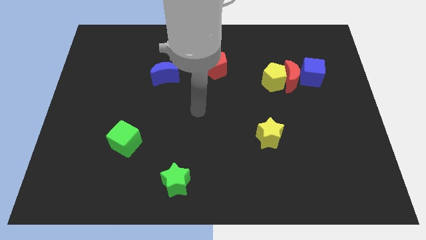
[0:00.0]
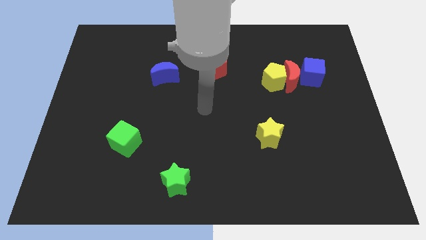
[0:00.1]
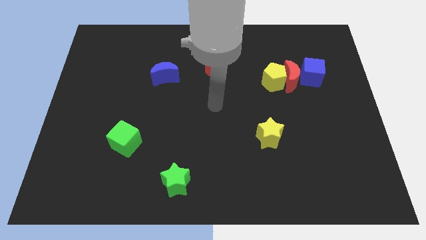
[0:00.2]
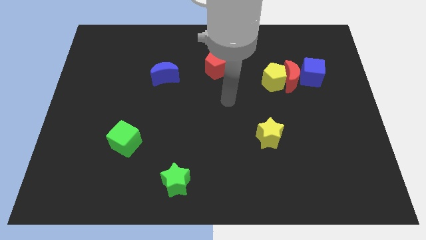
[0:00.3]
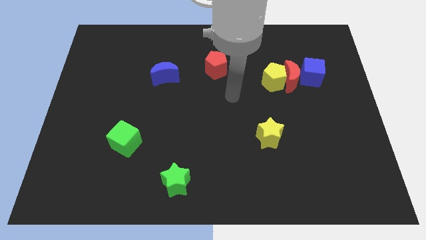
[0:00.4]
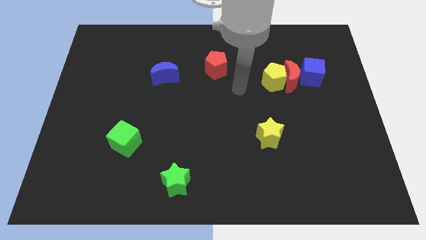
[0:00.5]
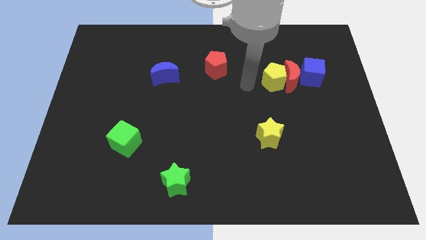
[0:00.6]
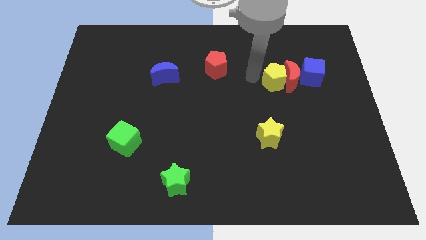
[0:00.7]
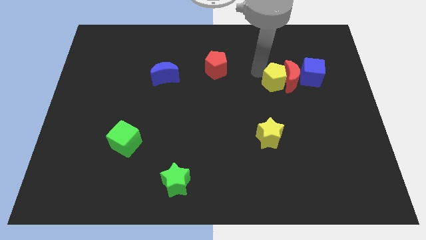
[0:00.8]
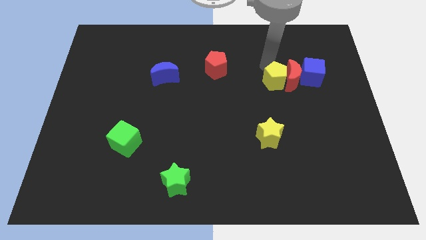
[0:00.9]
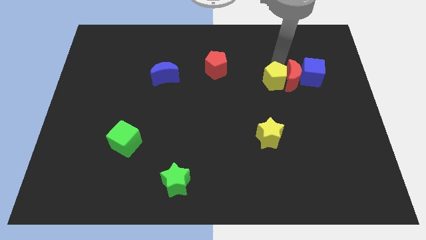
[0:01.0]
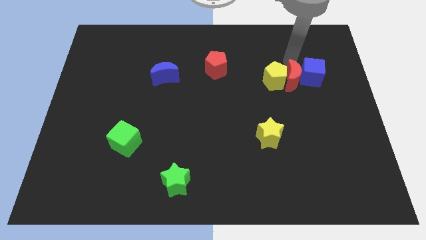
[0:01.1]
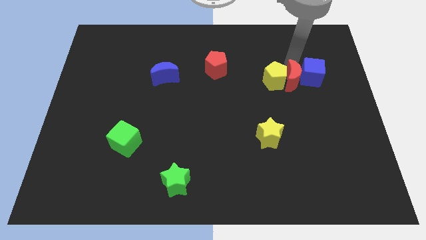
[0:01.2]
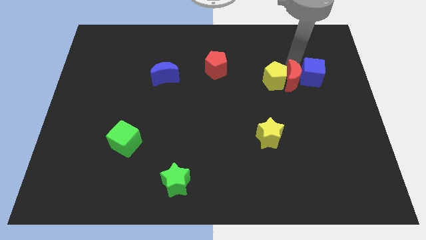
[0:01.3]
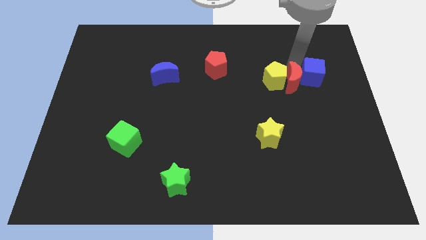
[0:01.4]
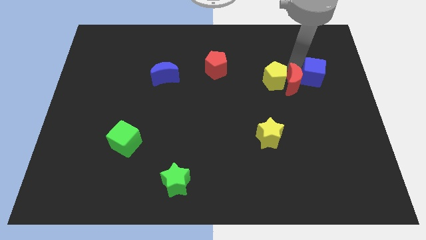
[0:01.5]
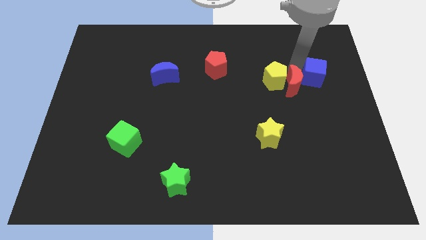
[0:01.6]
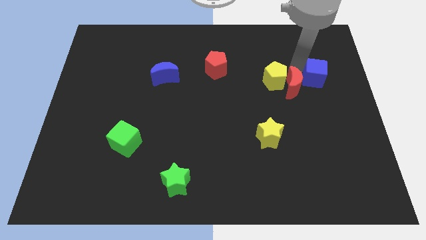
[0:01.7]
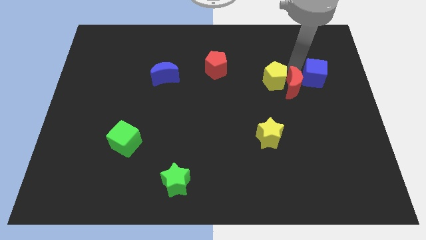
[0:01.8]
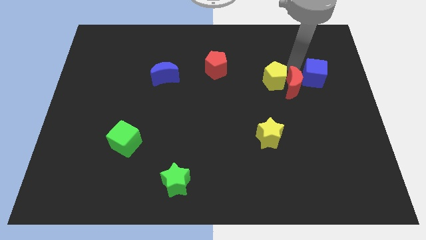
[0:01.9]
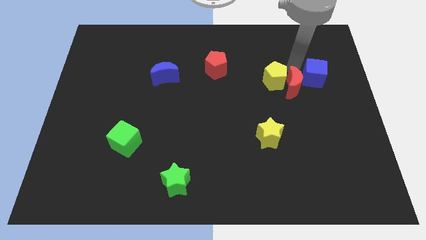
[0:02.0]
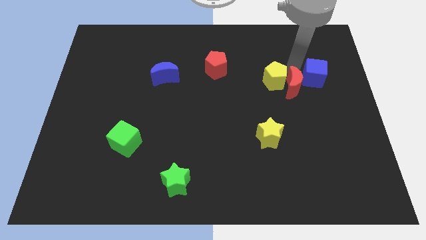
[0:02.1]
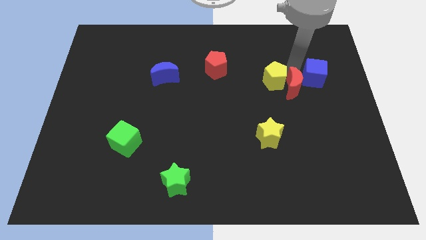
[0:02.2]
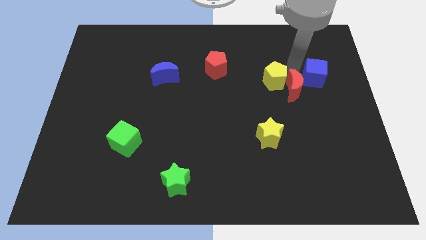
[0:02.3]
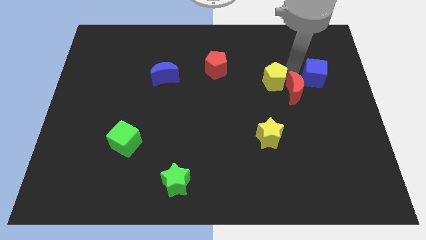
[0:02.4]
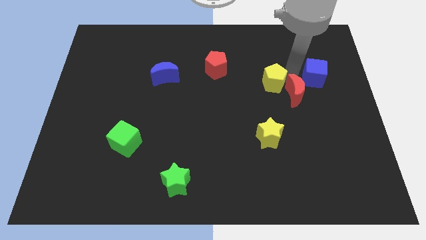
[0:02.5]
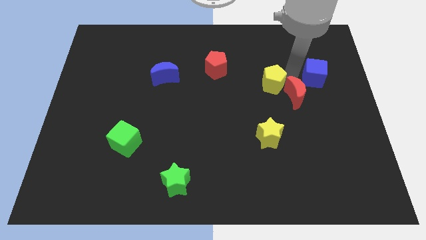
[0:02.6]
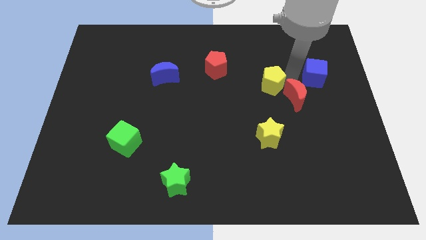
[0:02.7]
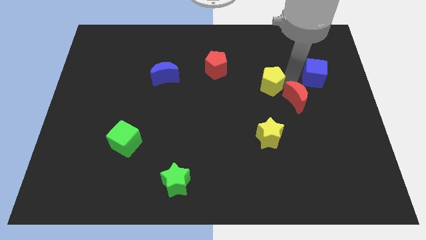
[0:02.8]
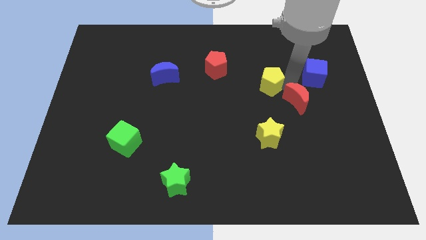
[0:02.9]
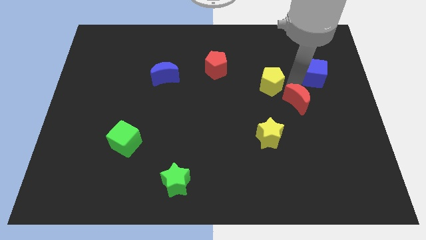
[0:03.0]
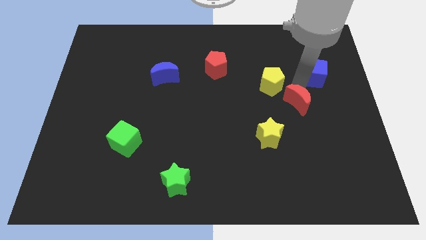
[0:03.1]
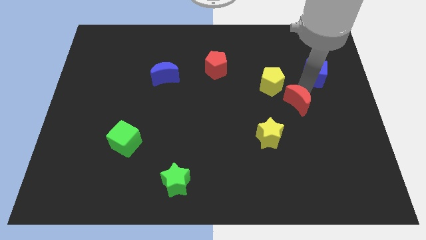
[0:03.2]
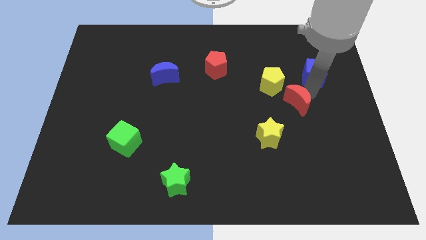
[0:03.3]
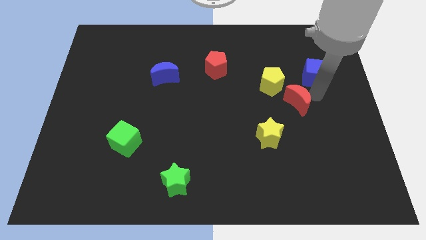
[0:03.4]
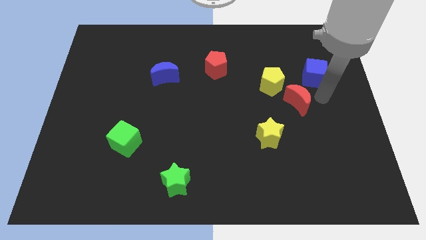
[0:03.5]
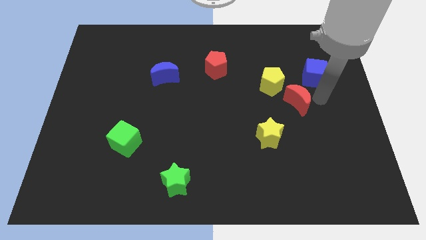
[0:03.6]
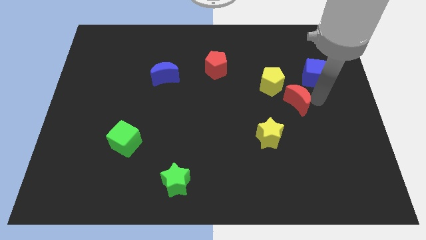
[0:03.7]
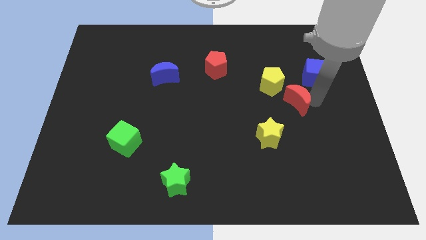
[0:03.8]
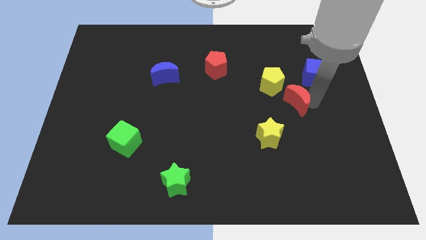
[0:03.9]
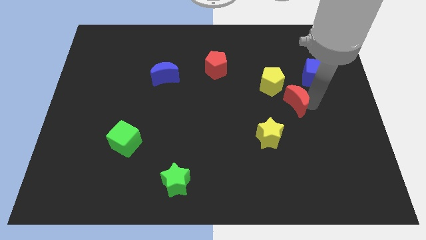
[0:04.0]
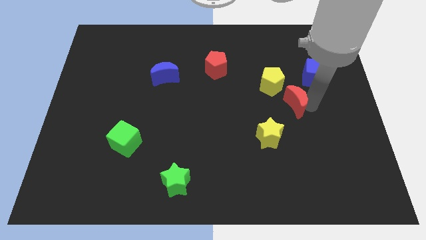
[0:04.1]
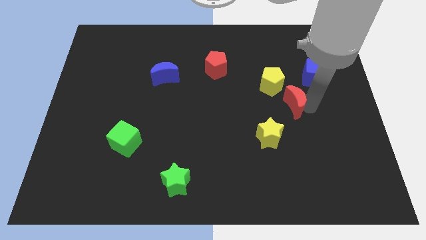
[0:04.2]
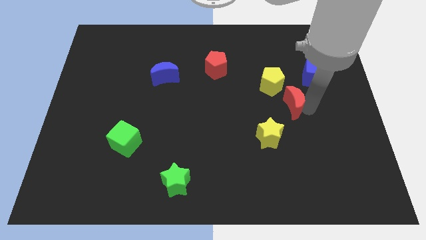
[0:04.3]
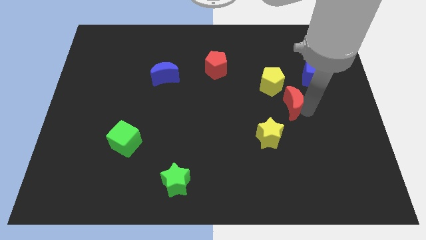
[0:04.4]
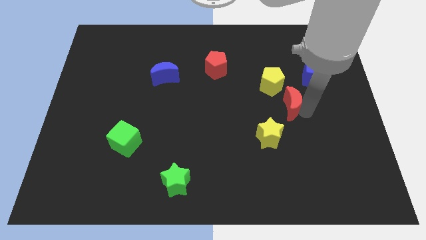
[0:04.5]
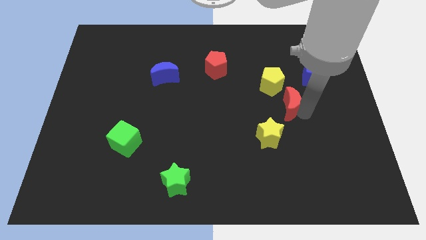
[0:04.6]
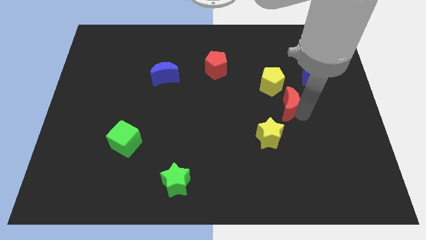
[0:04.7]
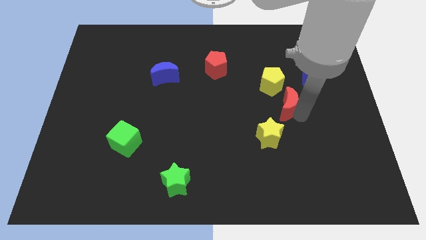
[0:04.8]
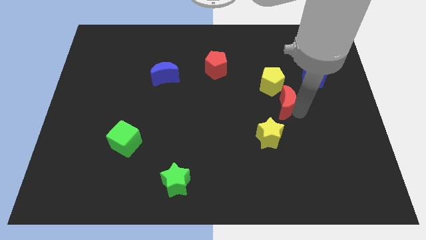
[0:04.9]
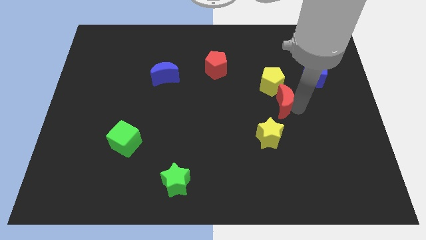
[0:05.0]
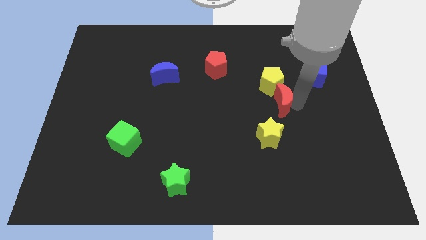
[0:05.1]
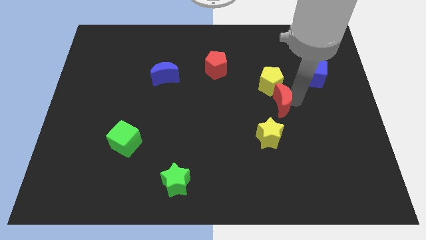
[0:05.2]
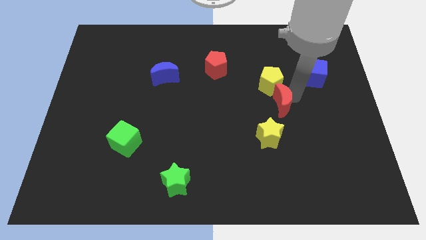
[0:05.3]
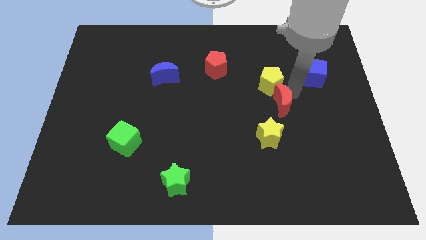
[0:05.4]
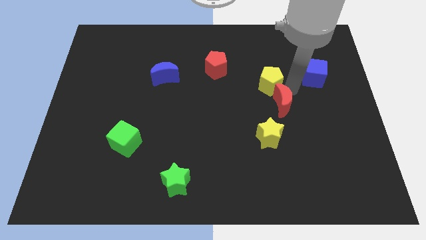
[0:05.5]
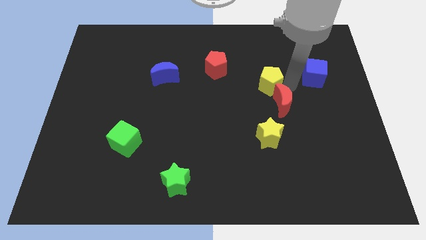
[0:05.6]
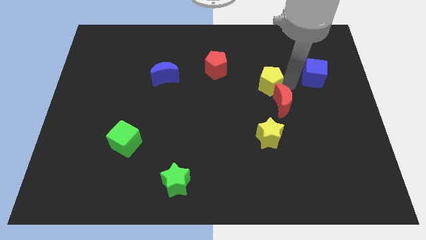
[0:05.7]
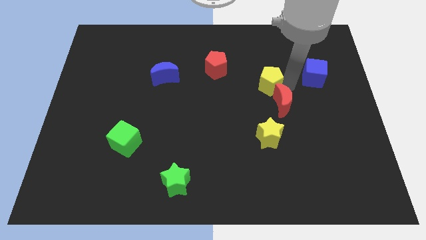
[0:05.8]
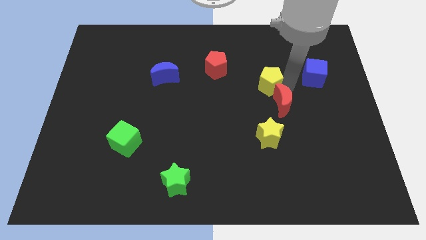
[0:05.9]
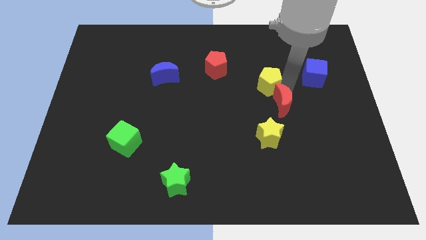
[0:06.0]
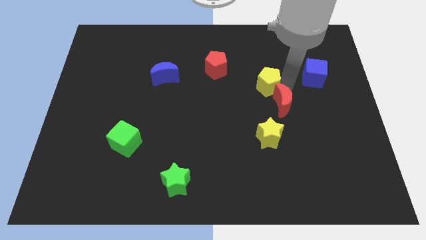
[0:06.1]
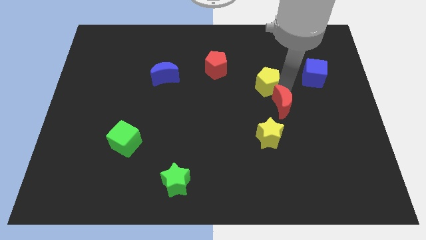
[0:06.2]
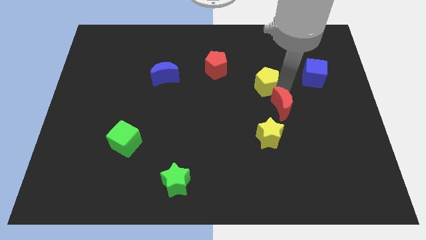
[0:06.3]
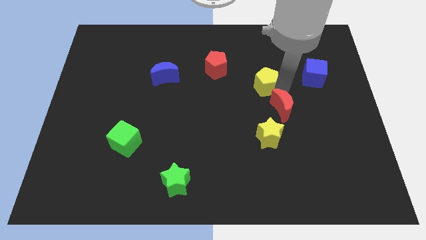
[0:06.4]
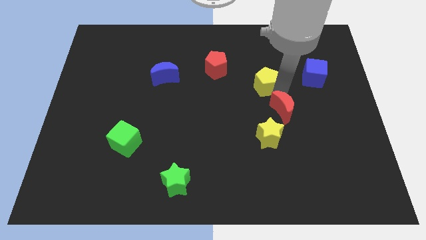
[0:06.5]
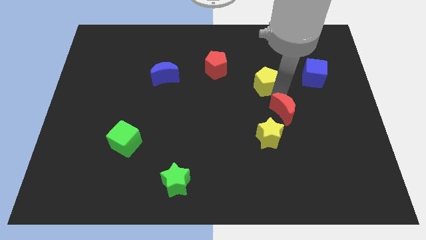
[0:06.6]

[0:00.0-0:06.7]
separate the red moon from the yellow pentagon and blue cube

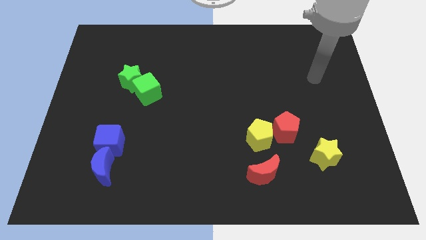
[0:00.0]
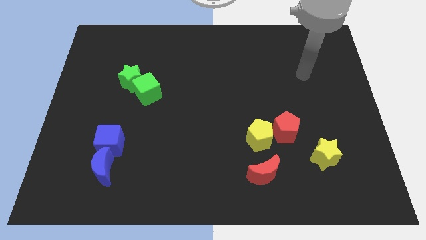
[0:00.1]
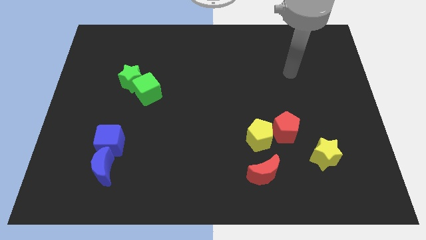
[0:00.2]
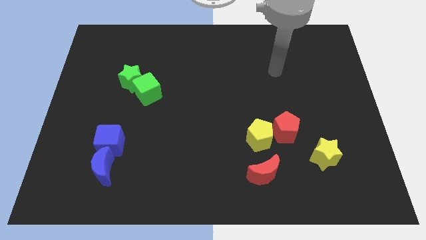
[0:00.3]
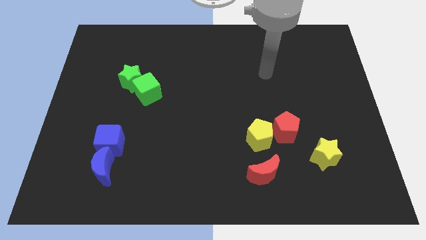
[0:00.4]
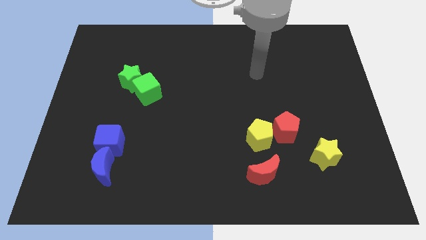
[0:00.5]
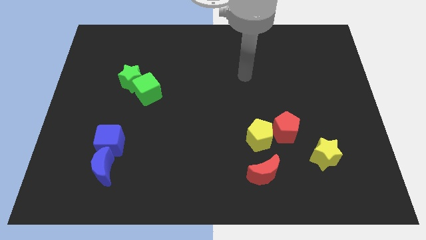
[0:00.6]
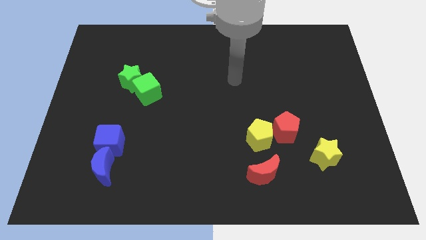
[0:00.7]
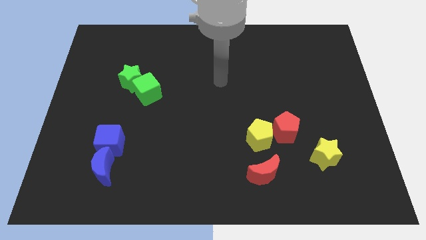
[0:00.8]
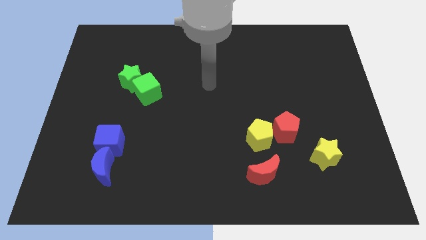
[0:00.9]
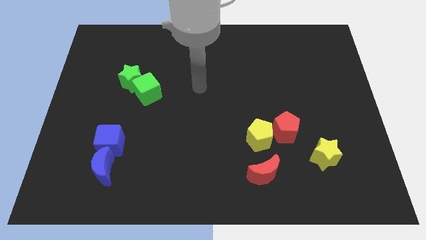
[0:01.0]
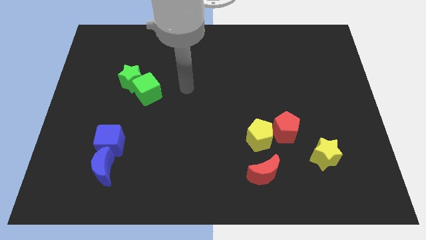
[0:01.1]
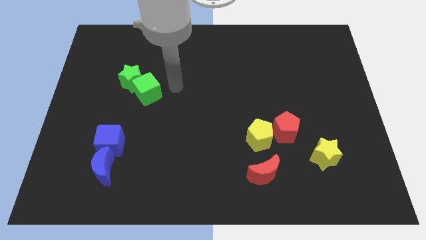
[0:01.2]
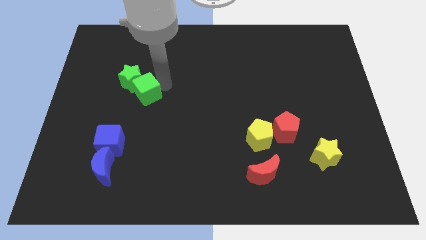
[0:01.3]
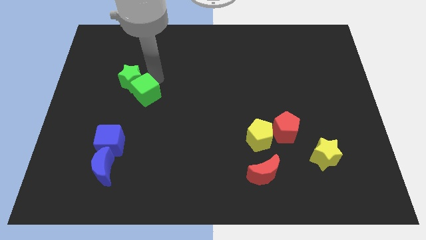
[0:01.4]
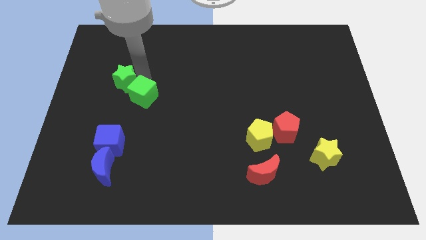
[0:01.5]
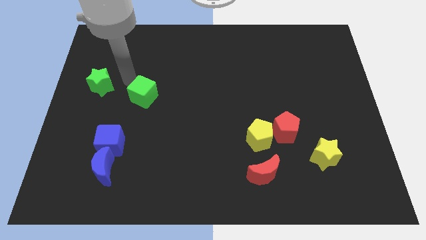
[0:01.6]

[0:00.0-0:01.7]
separate the green cube from the green star

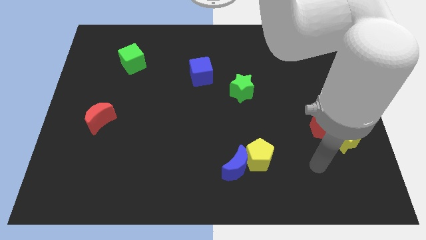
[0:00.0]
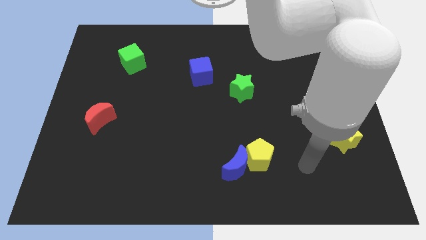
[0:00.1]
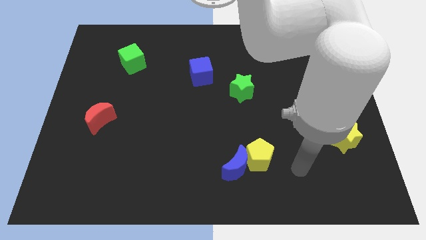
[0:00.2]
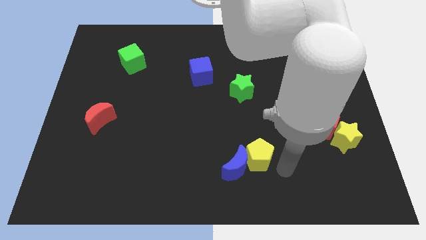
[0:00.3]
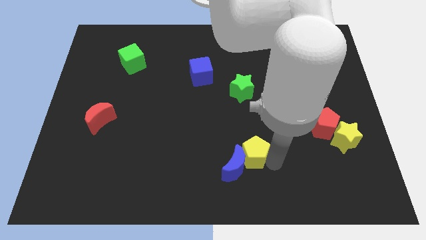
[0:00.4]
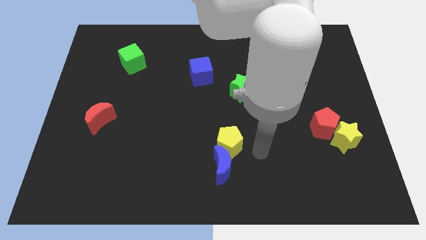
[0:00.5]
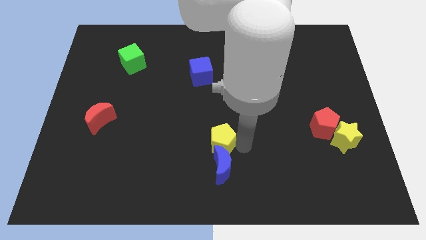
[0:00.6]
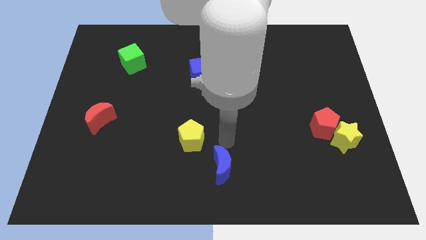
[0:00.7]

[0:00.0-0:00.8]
pull the blue moon apart from the yellow pentagon

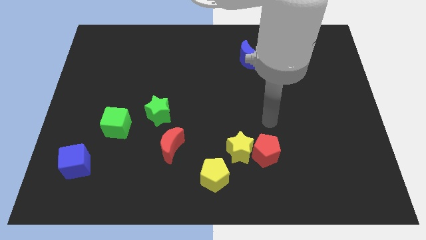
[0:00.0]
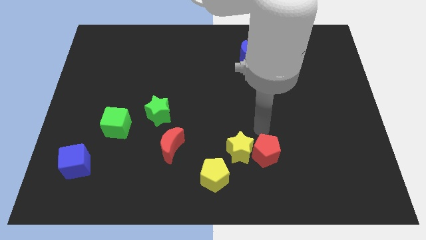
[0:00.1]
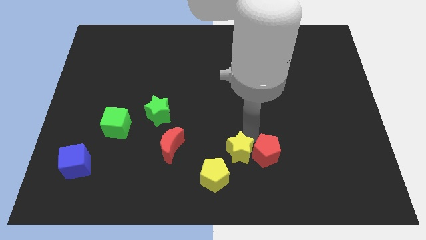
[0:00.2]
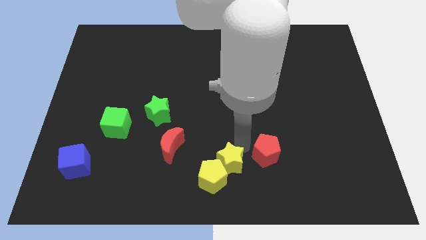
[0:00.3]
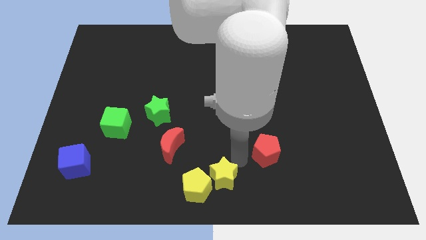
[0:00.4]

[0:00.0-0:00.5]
move the red pentagon away from the yellow star
